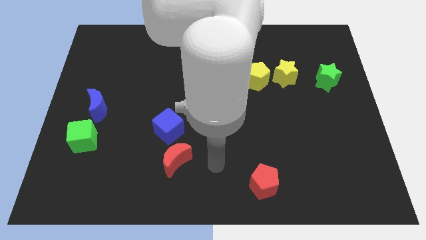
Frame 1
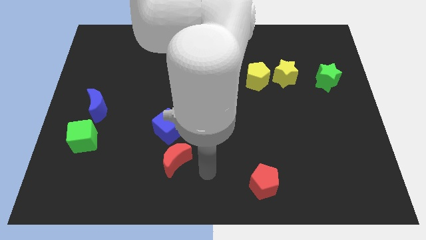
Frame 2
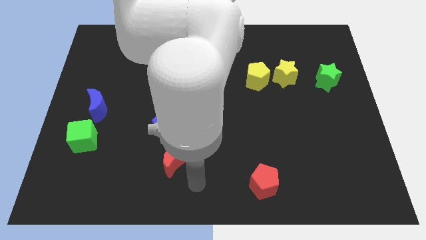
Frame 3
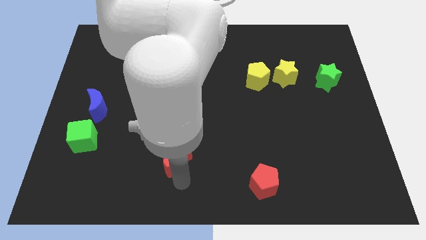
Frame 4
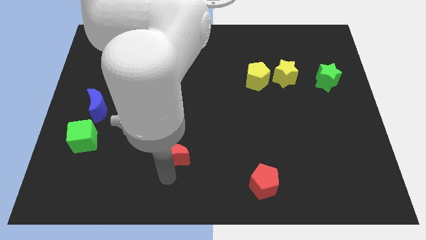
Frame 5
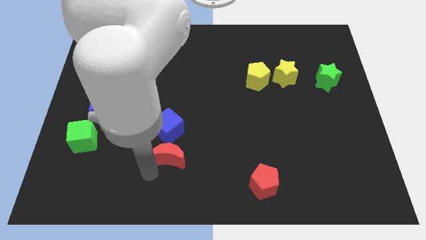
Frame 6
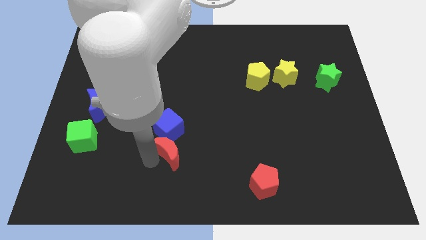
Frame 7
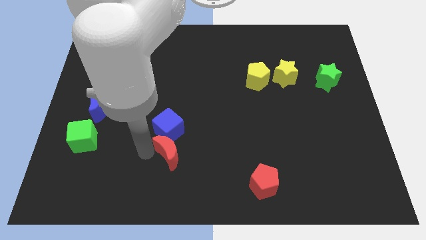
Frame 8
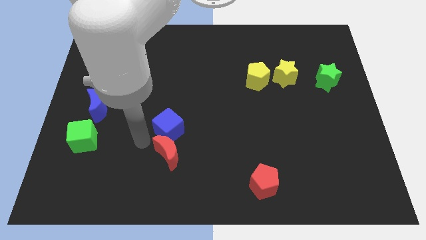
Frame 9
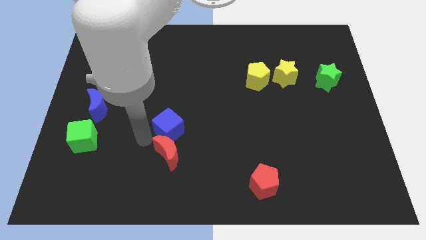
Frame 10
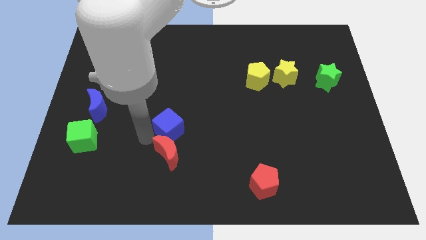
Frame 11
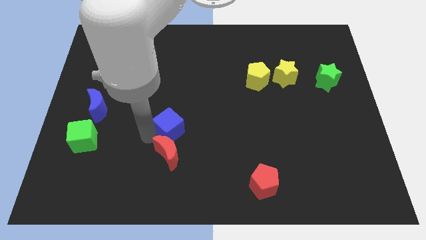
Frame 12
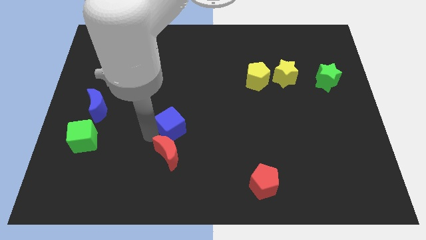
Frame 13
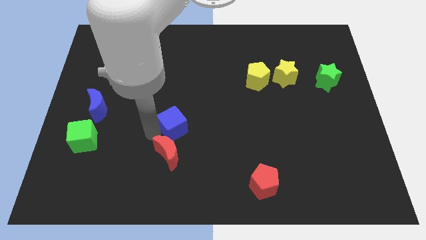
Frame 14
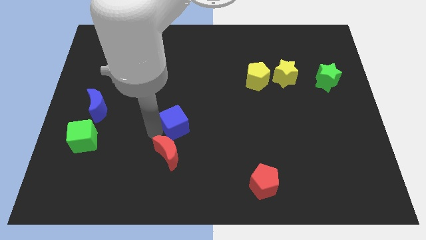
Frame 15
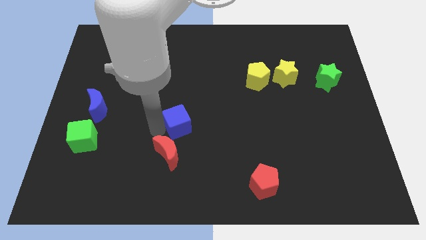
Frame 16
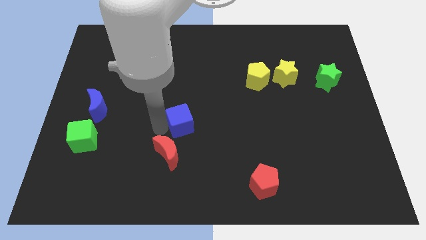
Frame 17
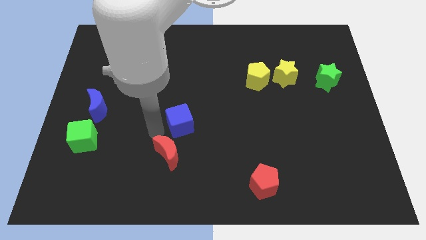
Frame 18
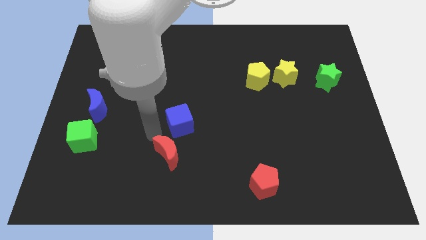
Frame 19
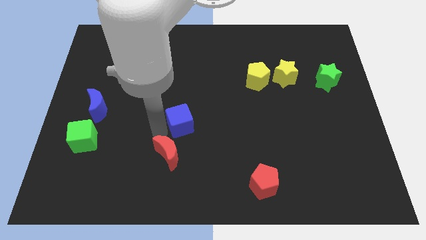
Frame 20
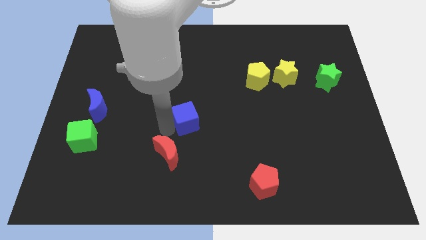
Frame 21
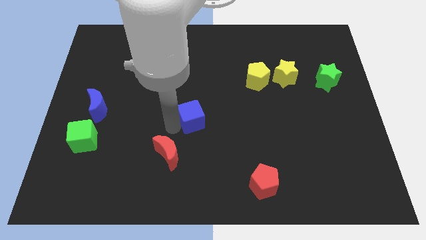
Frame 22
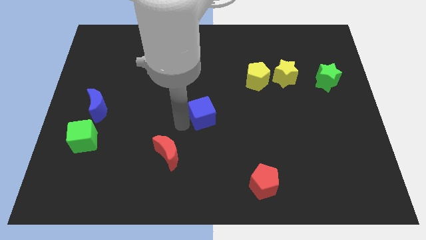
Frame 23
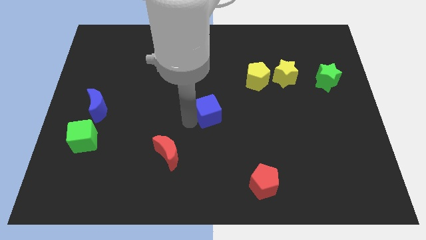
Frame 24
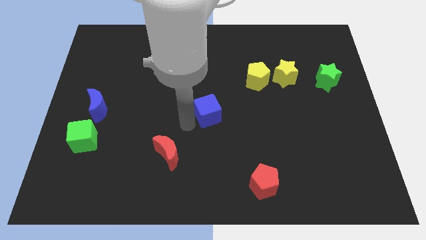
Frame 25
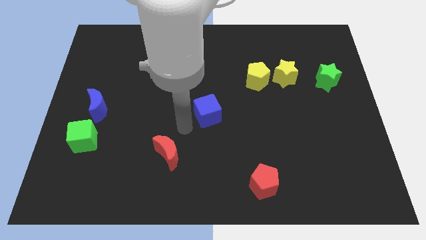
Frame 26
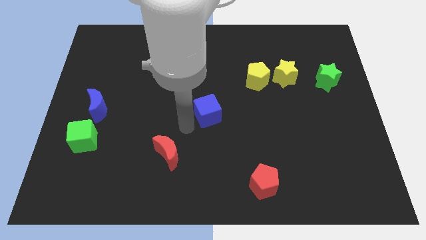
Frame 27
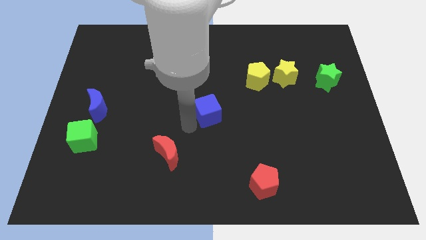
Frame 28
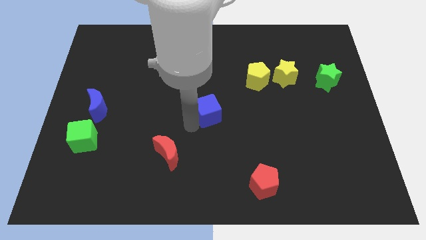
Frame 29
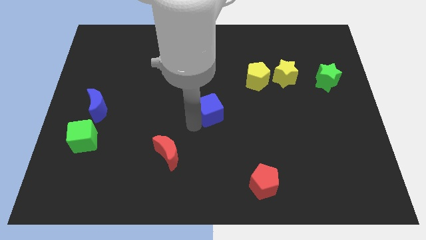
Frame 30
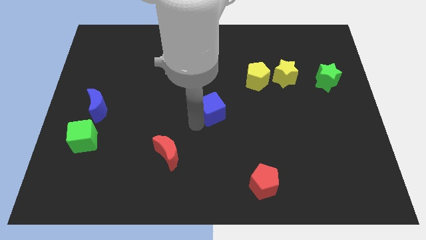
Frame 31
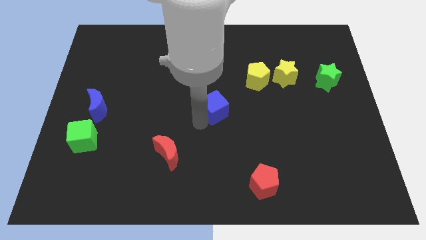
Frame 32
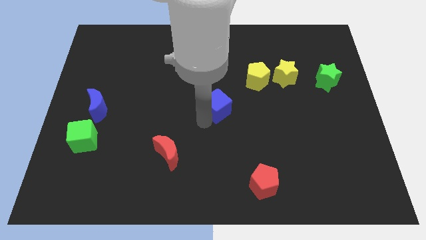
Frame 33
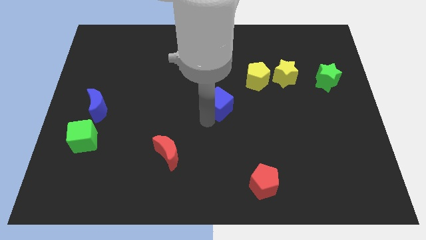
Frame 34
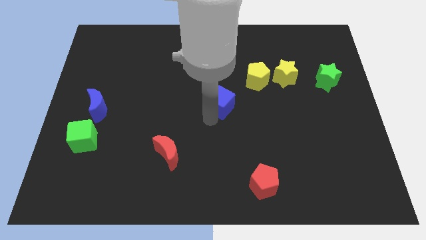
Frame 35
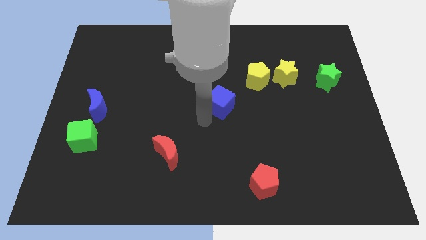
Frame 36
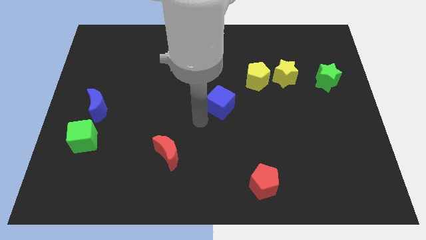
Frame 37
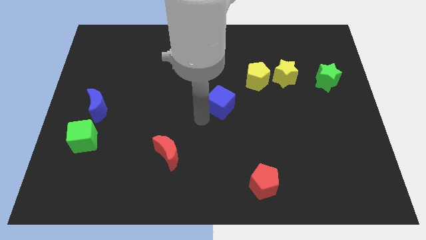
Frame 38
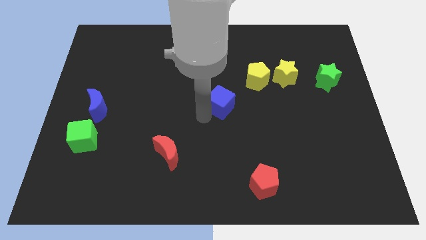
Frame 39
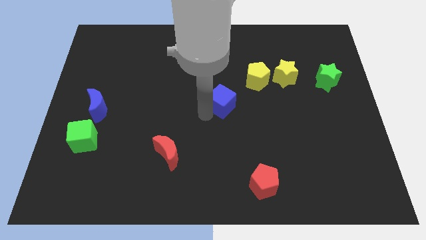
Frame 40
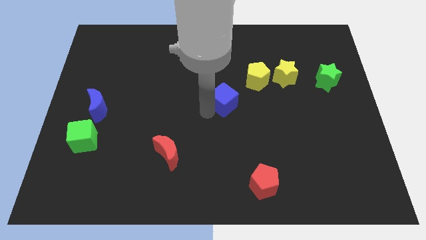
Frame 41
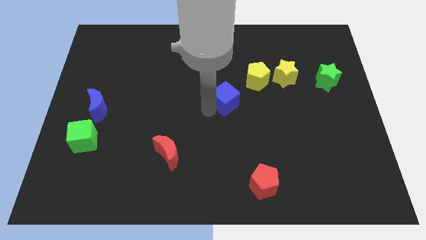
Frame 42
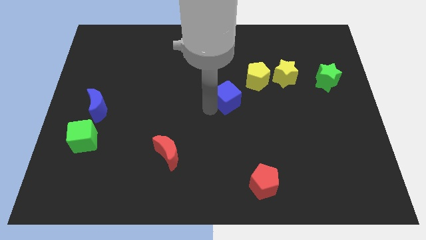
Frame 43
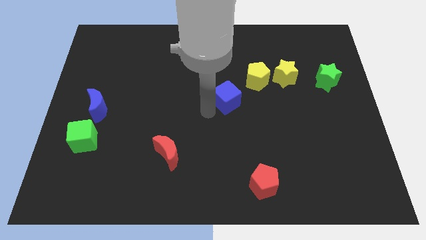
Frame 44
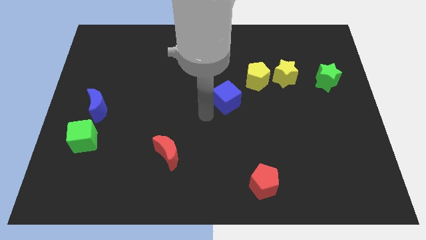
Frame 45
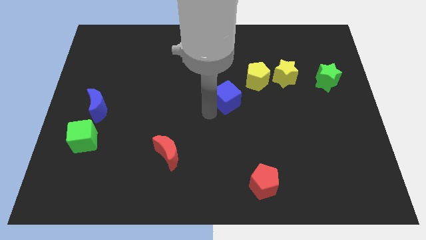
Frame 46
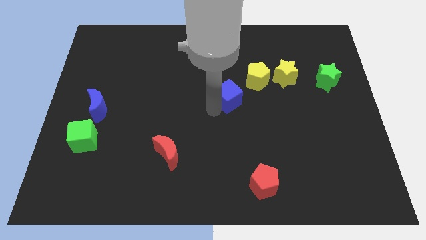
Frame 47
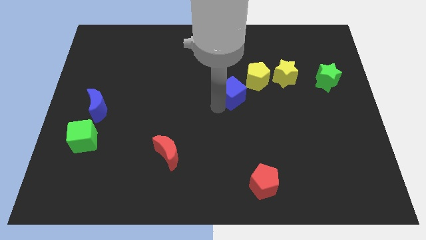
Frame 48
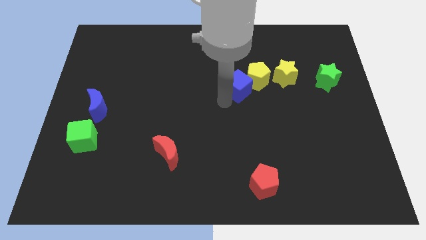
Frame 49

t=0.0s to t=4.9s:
move the blue cube to the yellow pentagon

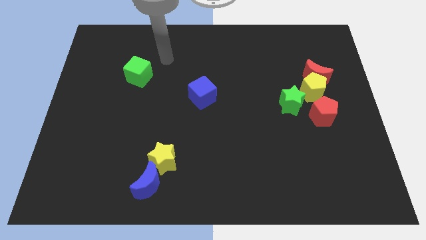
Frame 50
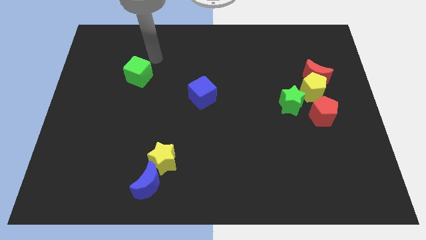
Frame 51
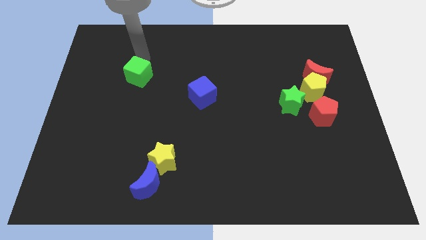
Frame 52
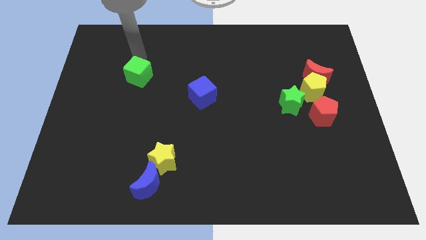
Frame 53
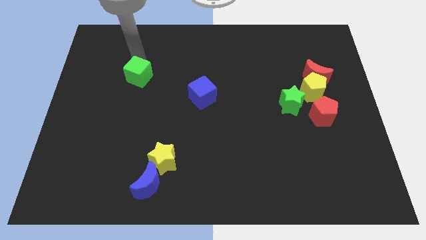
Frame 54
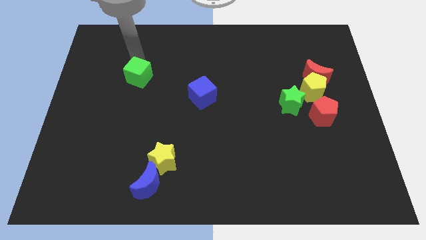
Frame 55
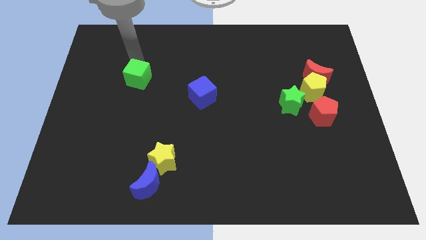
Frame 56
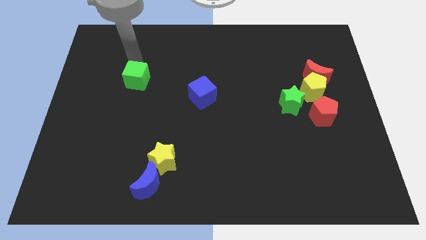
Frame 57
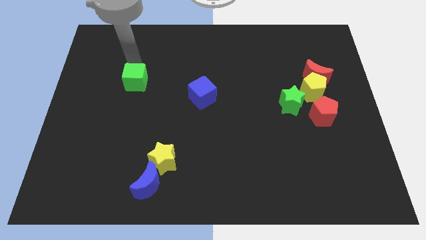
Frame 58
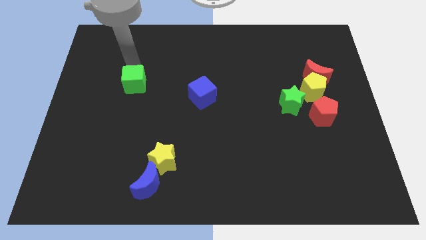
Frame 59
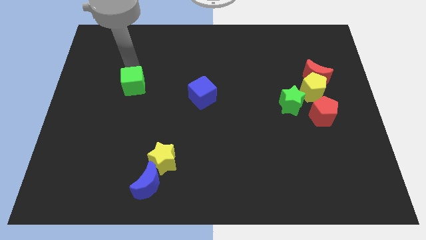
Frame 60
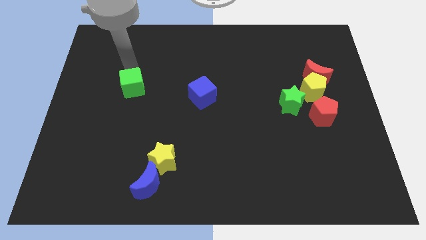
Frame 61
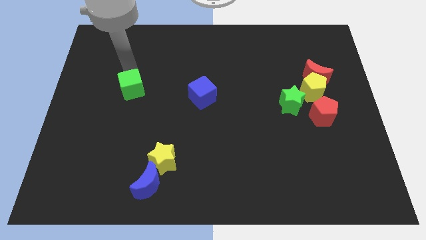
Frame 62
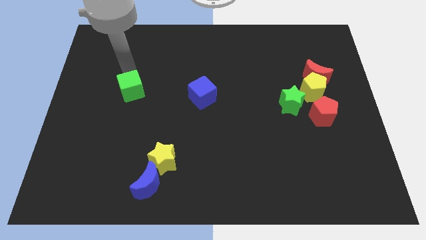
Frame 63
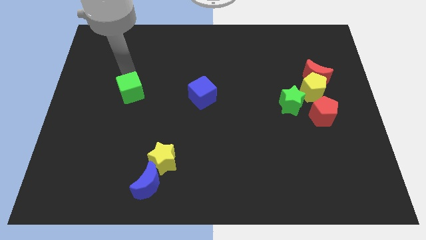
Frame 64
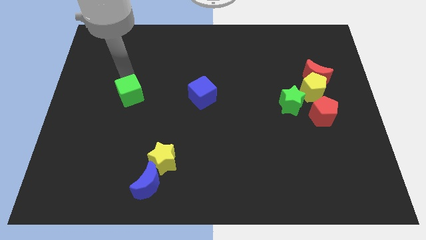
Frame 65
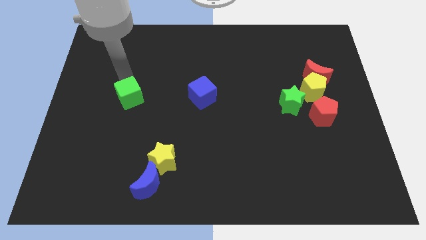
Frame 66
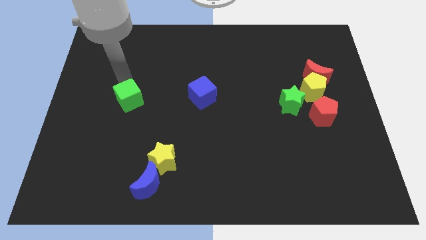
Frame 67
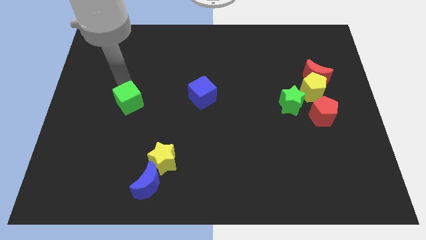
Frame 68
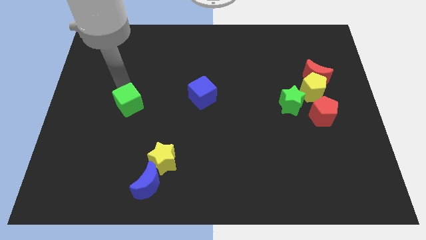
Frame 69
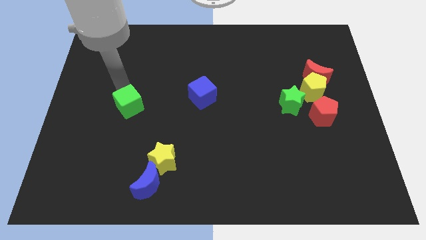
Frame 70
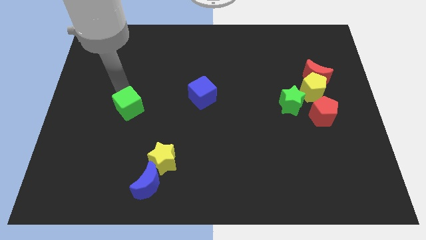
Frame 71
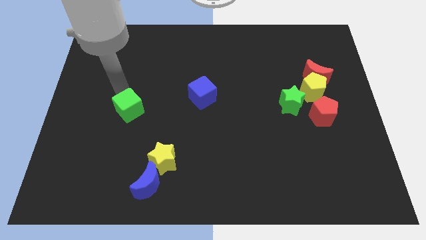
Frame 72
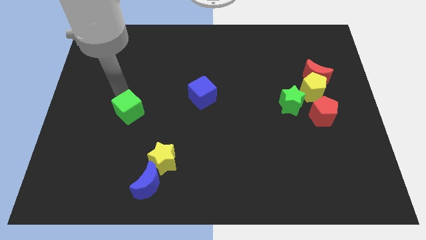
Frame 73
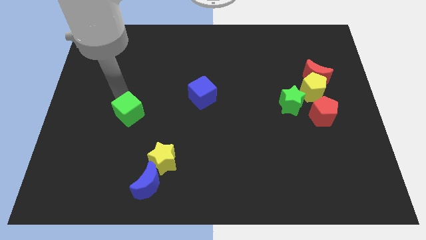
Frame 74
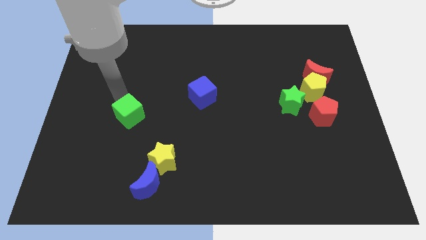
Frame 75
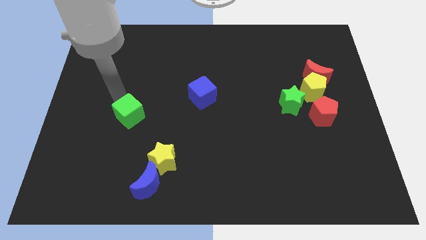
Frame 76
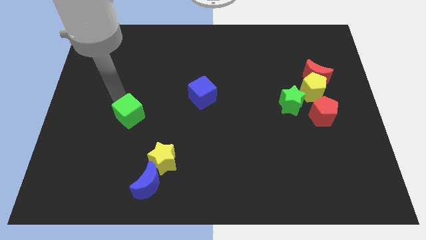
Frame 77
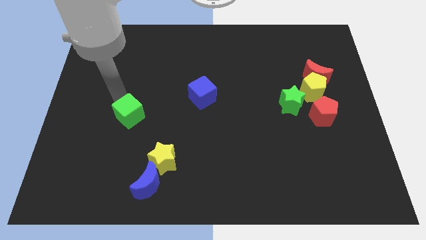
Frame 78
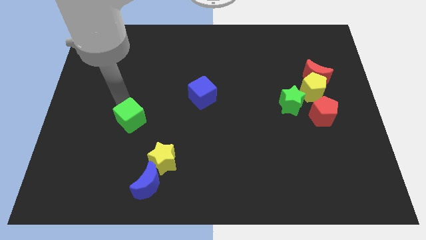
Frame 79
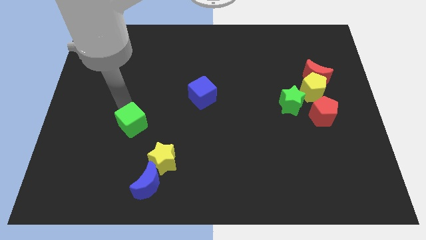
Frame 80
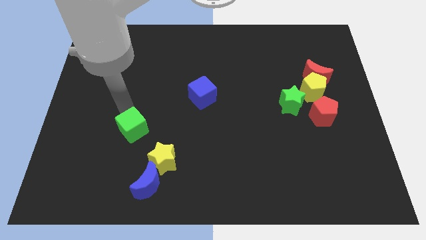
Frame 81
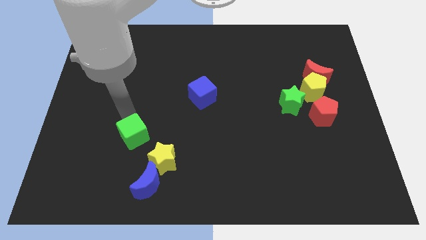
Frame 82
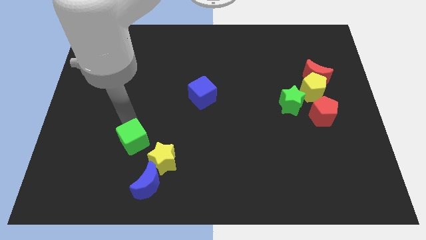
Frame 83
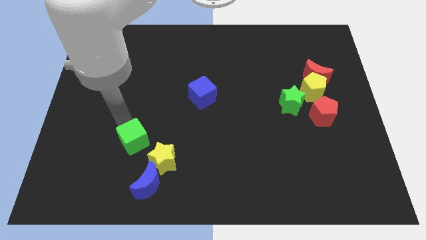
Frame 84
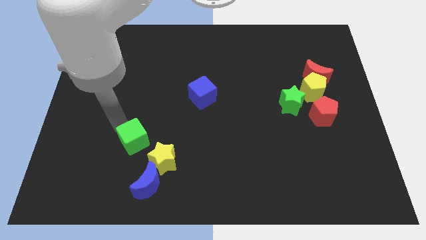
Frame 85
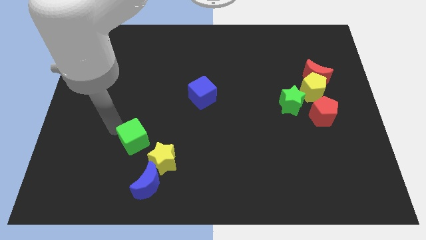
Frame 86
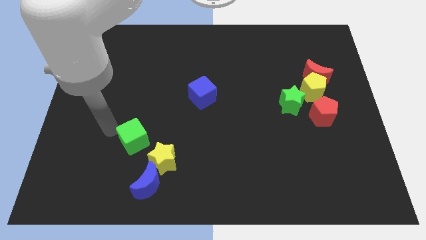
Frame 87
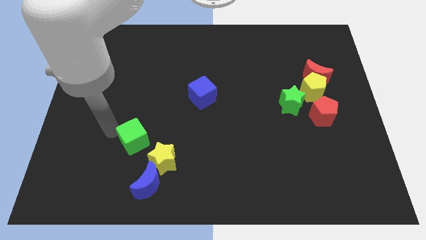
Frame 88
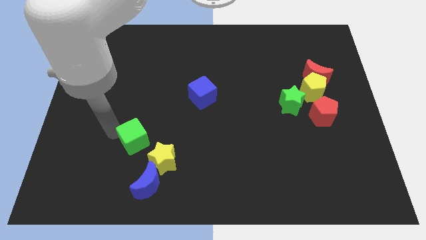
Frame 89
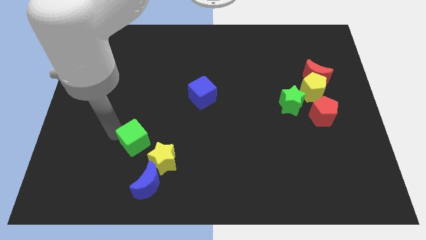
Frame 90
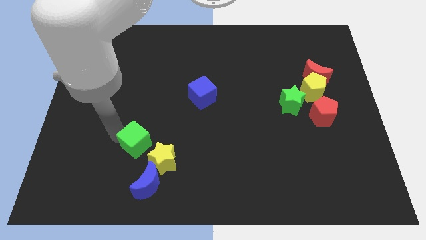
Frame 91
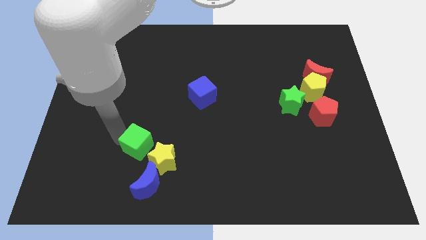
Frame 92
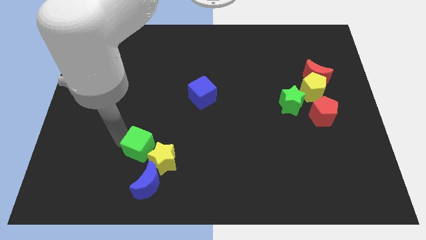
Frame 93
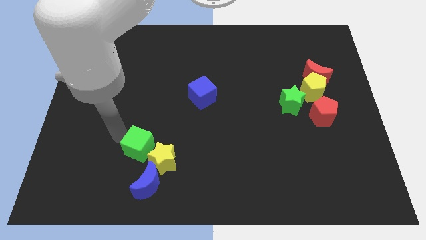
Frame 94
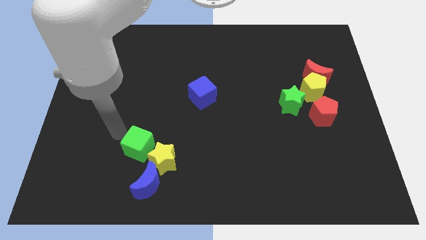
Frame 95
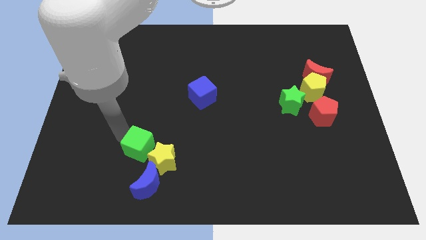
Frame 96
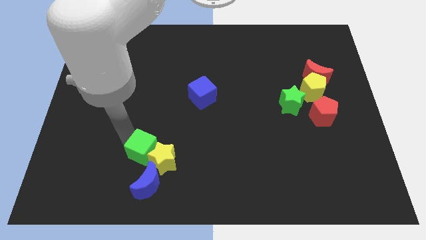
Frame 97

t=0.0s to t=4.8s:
slide the green cube to the yellow star
